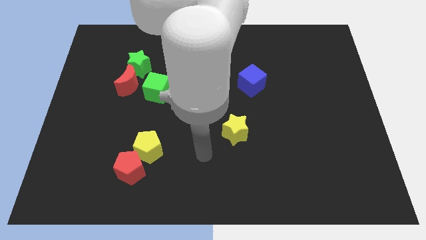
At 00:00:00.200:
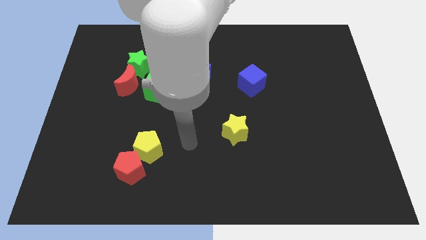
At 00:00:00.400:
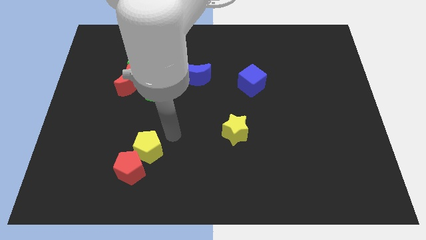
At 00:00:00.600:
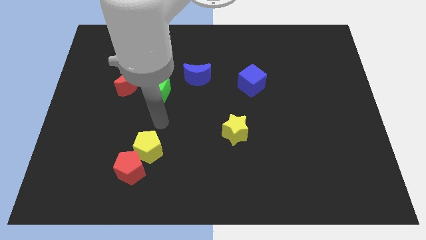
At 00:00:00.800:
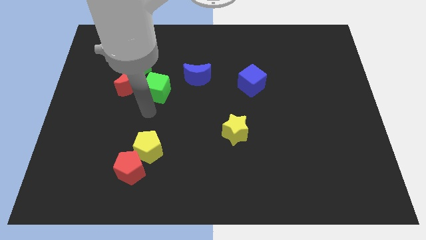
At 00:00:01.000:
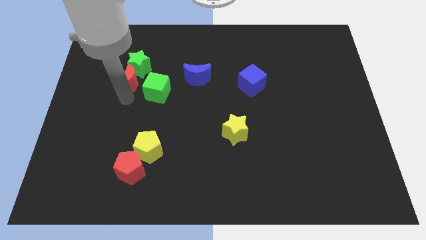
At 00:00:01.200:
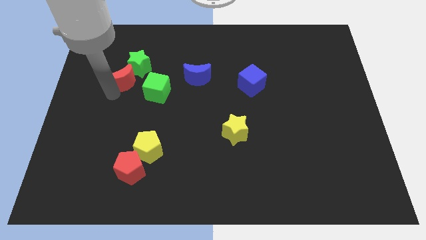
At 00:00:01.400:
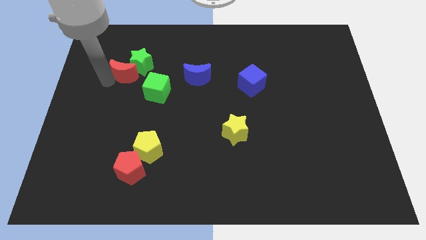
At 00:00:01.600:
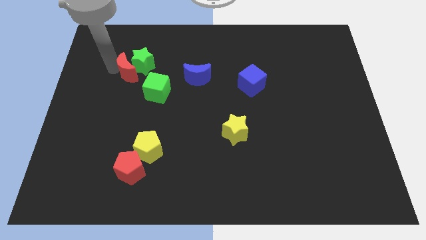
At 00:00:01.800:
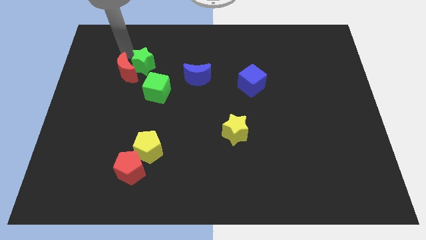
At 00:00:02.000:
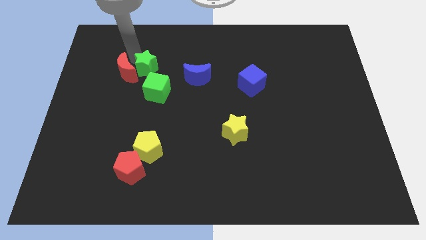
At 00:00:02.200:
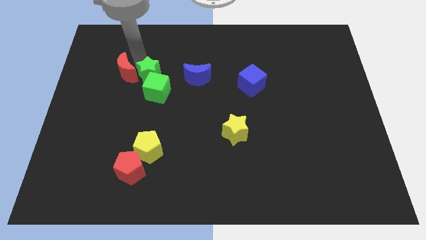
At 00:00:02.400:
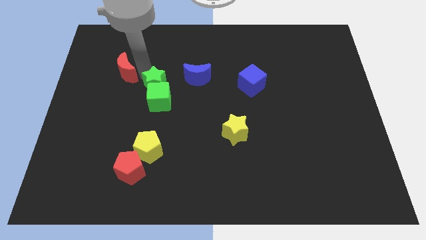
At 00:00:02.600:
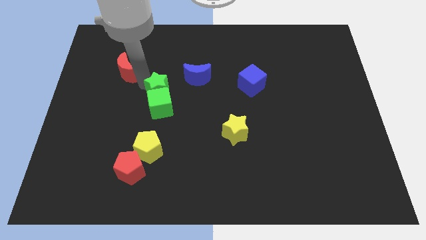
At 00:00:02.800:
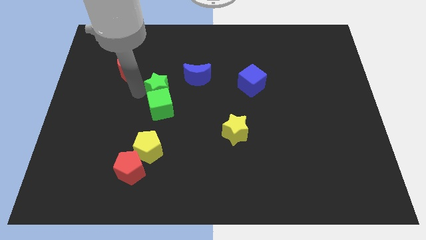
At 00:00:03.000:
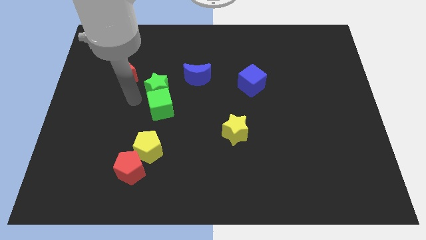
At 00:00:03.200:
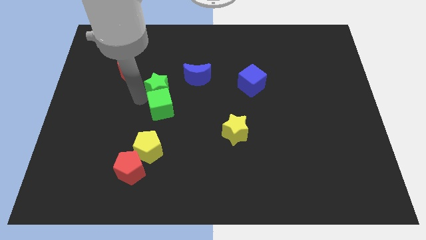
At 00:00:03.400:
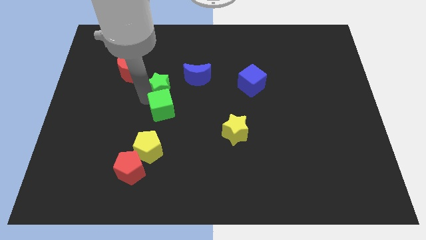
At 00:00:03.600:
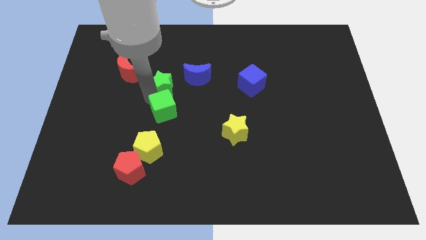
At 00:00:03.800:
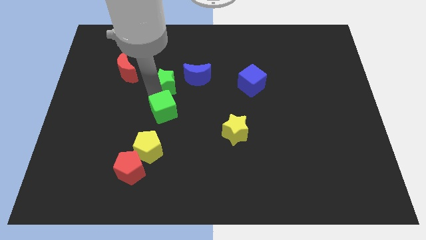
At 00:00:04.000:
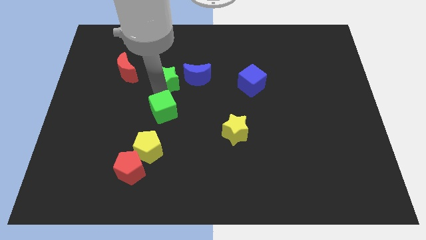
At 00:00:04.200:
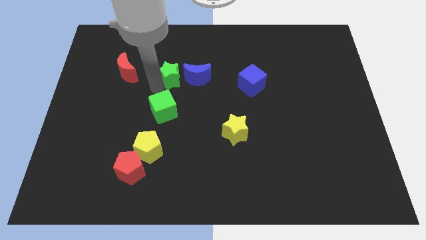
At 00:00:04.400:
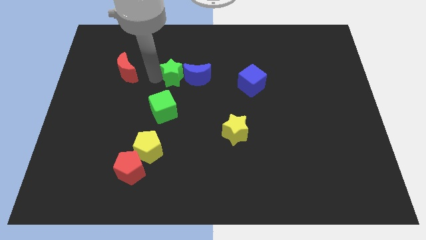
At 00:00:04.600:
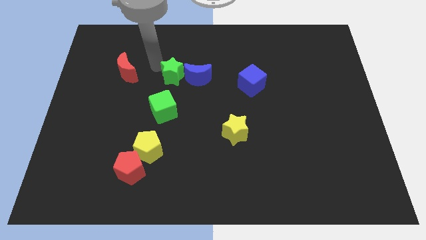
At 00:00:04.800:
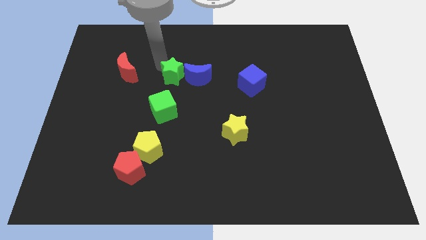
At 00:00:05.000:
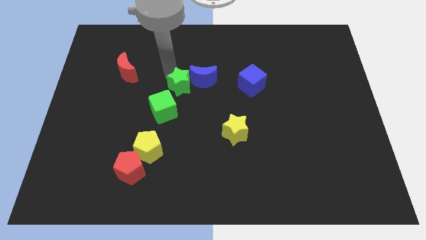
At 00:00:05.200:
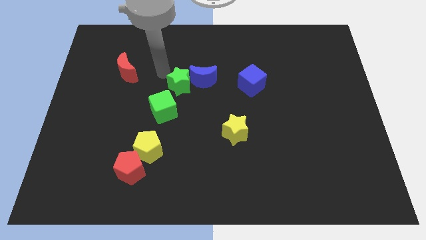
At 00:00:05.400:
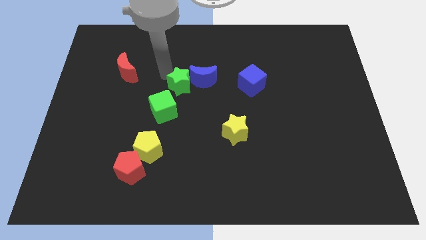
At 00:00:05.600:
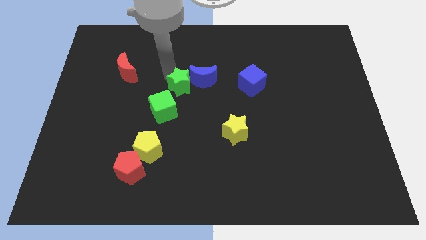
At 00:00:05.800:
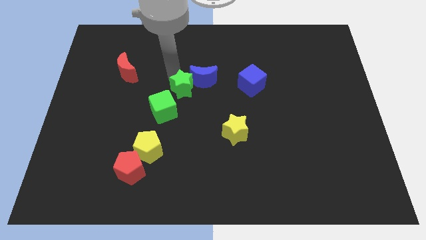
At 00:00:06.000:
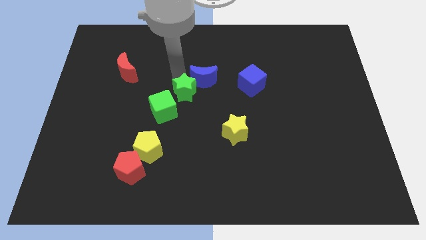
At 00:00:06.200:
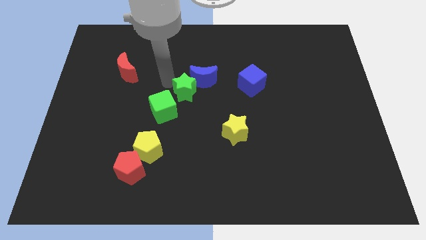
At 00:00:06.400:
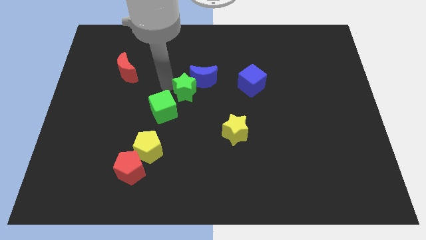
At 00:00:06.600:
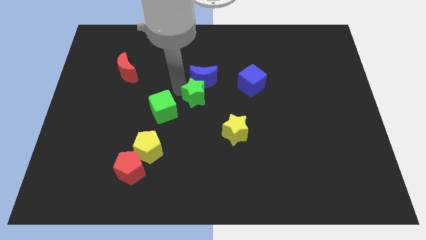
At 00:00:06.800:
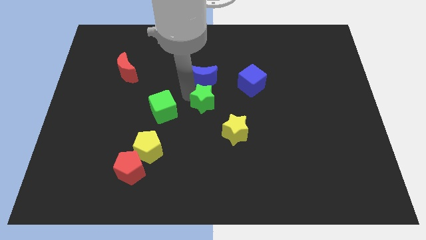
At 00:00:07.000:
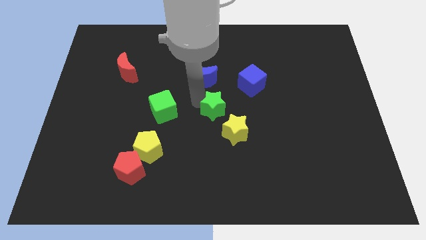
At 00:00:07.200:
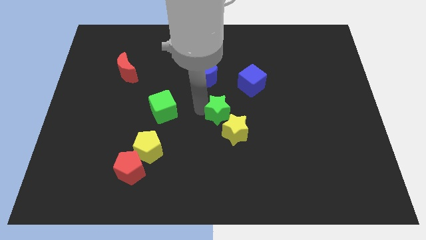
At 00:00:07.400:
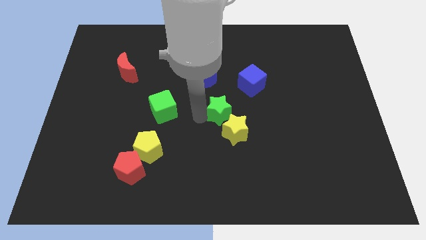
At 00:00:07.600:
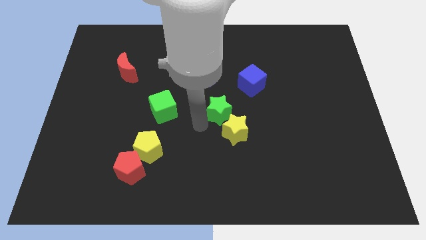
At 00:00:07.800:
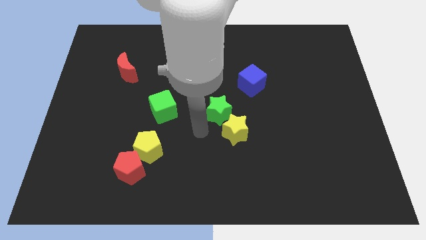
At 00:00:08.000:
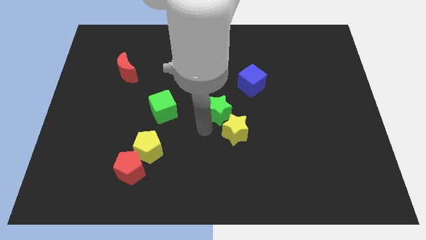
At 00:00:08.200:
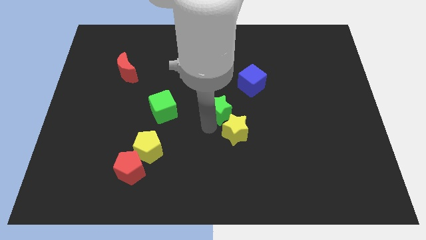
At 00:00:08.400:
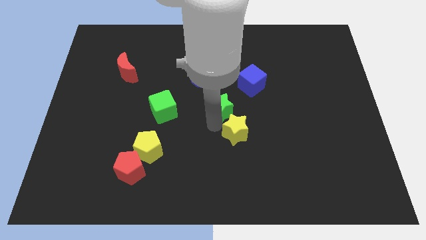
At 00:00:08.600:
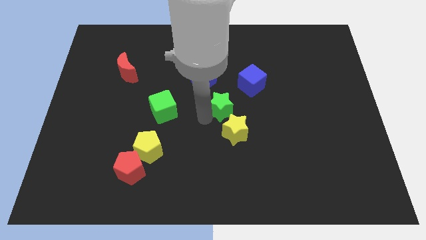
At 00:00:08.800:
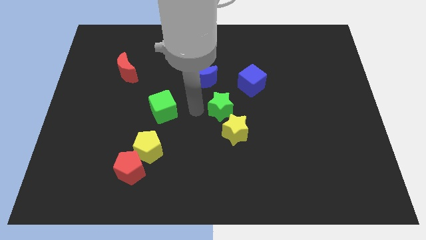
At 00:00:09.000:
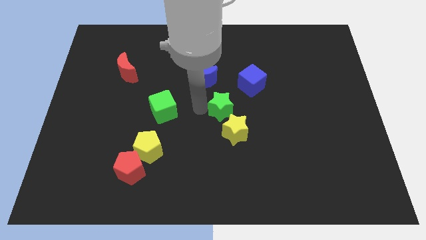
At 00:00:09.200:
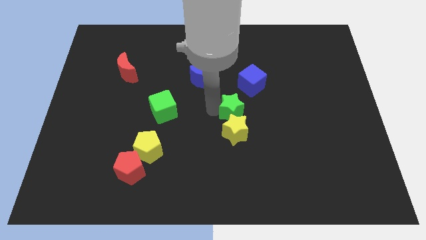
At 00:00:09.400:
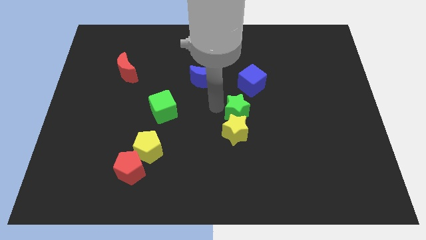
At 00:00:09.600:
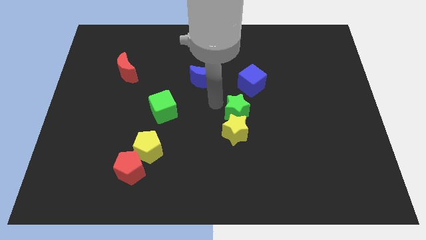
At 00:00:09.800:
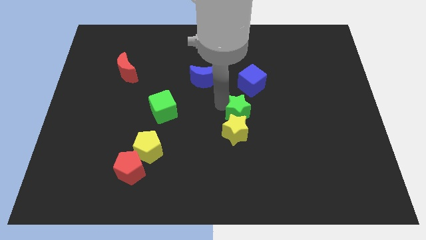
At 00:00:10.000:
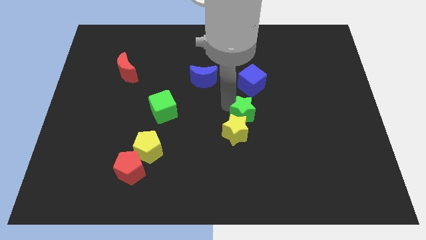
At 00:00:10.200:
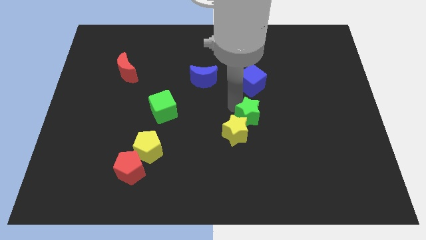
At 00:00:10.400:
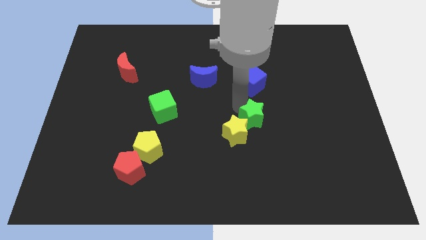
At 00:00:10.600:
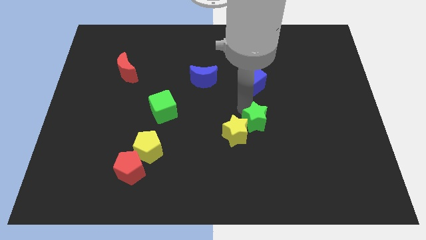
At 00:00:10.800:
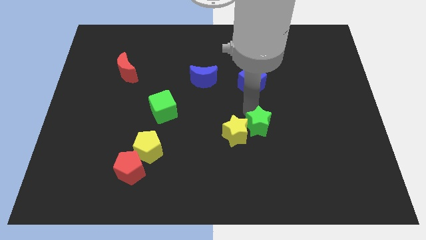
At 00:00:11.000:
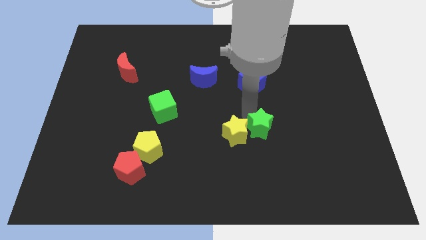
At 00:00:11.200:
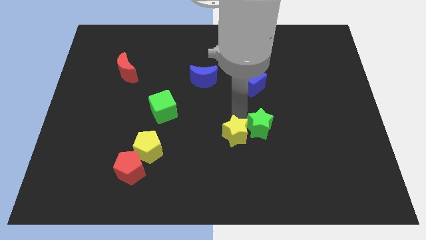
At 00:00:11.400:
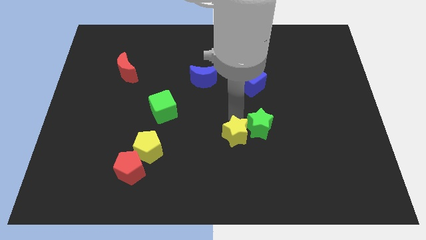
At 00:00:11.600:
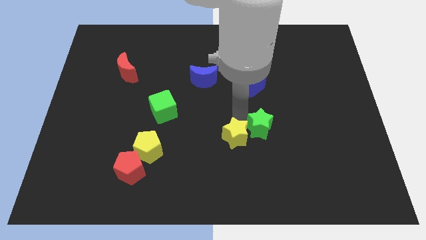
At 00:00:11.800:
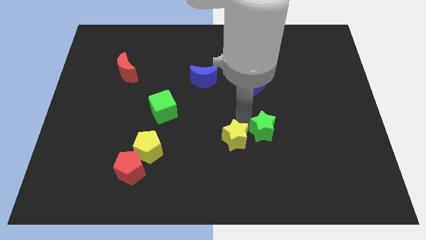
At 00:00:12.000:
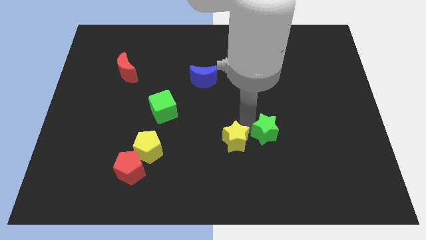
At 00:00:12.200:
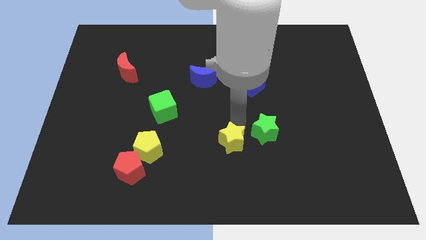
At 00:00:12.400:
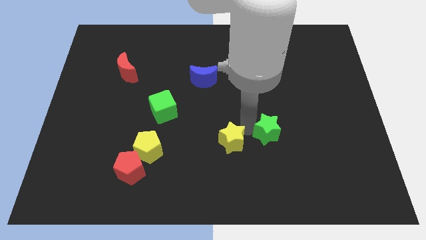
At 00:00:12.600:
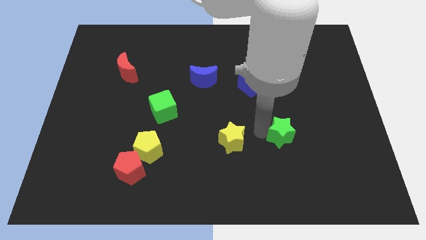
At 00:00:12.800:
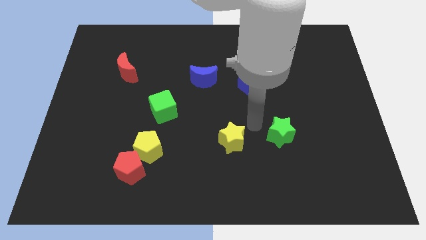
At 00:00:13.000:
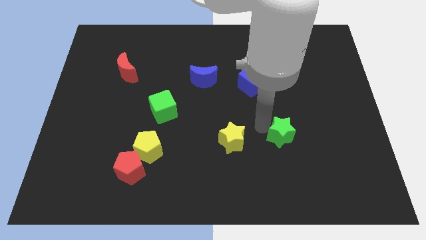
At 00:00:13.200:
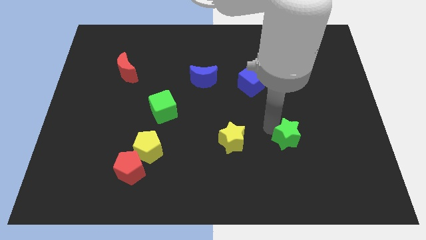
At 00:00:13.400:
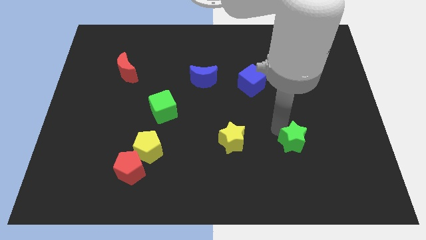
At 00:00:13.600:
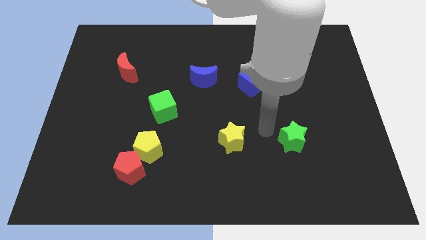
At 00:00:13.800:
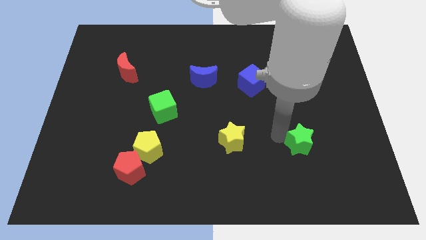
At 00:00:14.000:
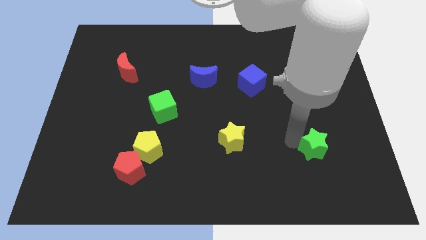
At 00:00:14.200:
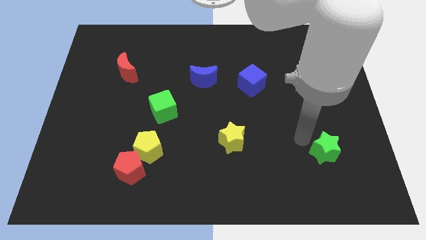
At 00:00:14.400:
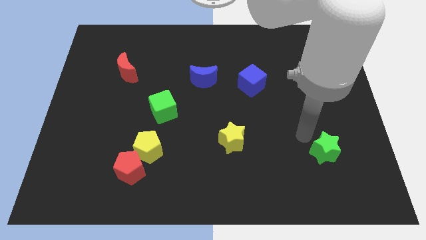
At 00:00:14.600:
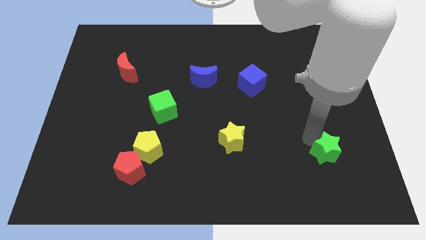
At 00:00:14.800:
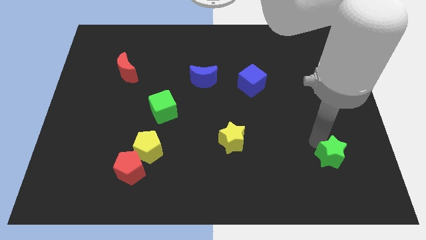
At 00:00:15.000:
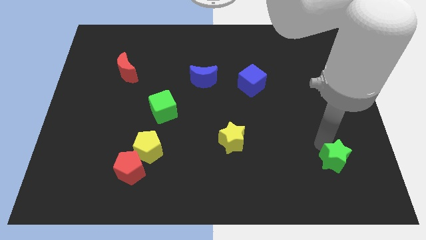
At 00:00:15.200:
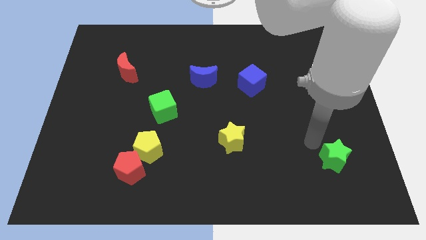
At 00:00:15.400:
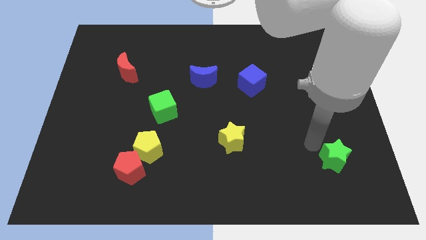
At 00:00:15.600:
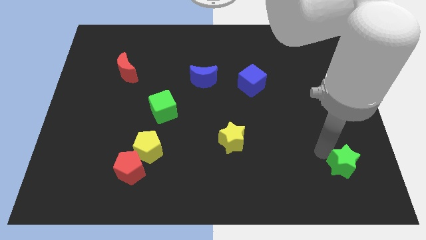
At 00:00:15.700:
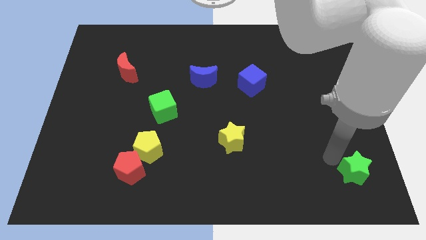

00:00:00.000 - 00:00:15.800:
slide the green star to the bottom right corner
